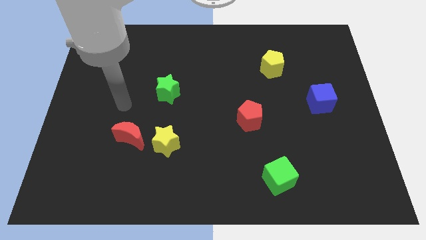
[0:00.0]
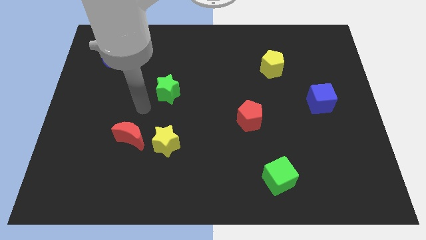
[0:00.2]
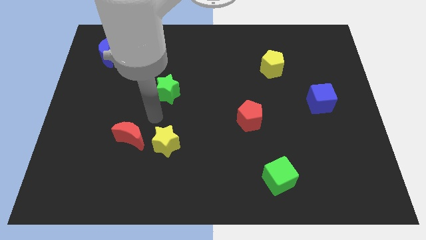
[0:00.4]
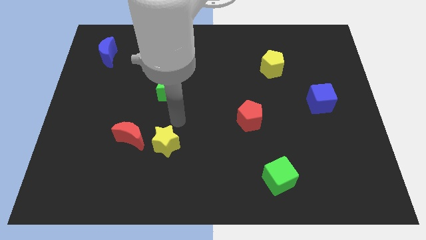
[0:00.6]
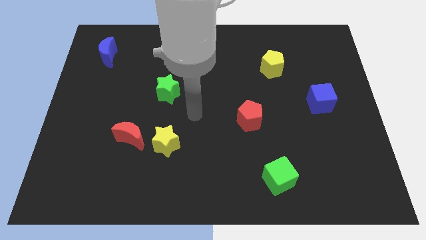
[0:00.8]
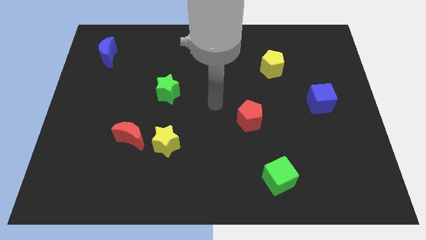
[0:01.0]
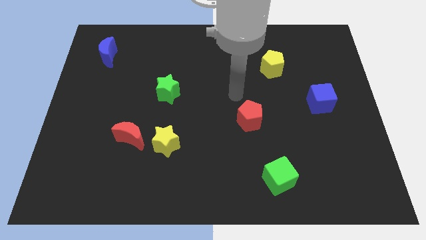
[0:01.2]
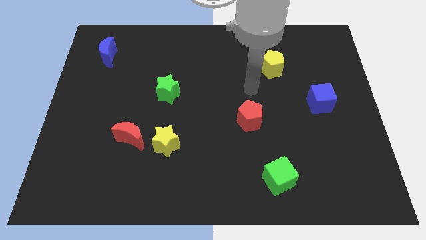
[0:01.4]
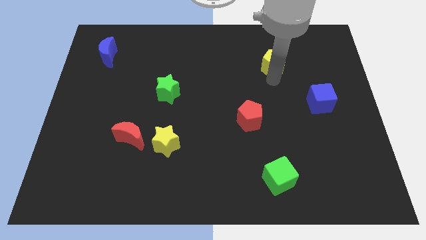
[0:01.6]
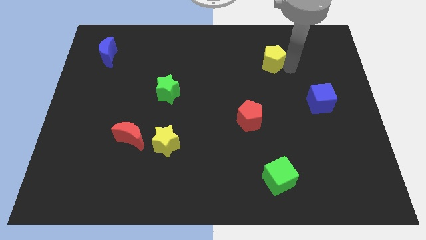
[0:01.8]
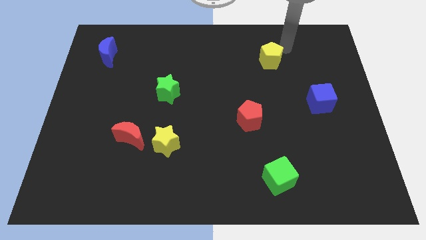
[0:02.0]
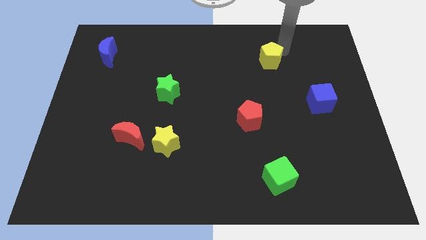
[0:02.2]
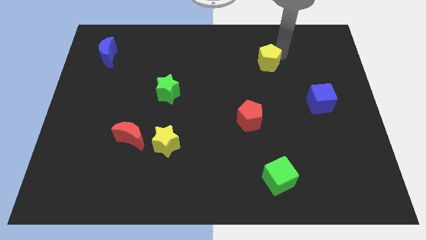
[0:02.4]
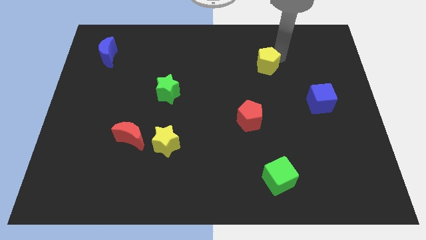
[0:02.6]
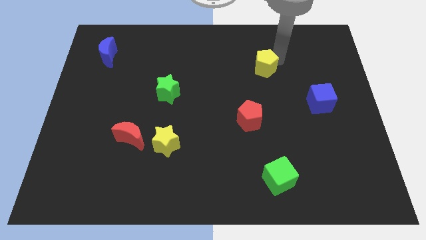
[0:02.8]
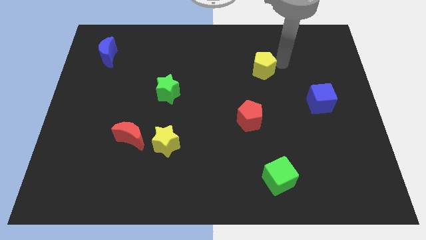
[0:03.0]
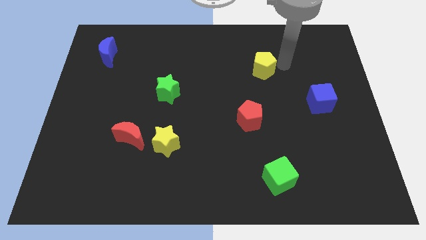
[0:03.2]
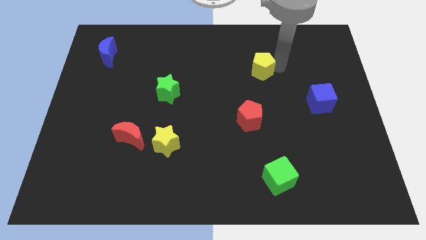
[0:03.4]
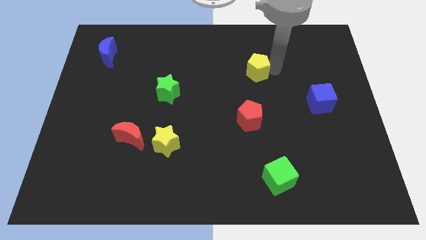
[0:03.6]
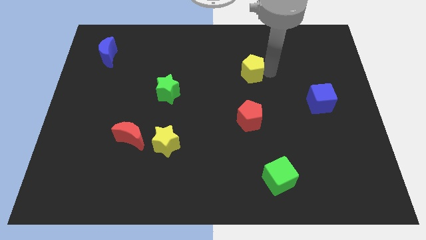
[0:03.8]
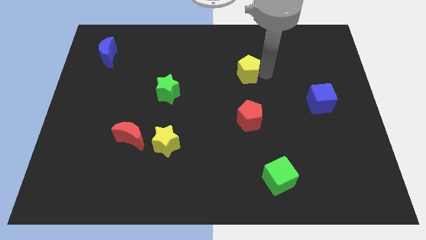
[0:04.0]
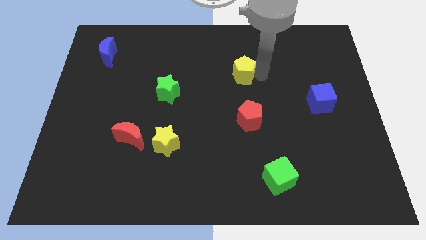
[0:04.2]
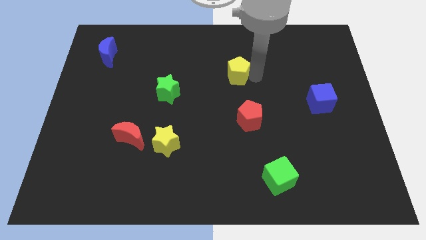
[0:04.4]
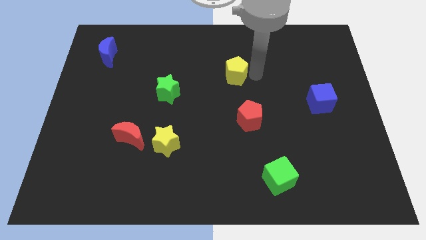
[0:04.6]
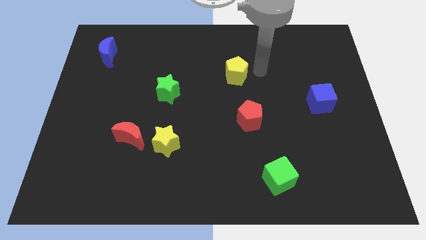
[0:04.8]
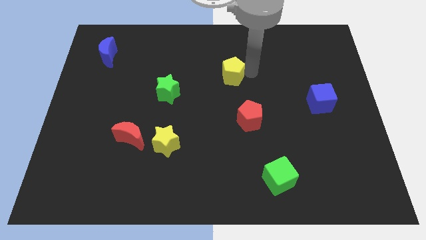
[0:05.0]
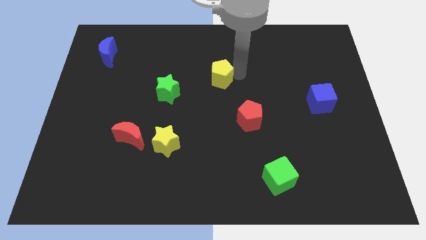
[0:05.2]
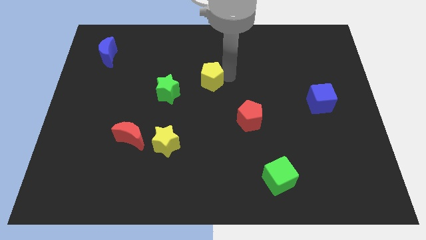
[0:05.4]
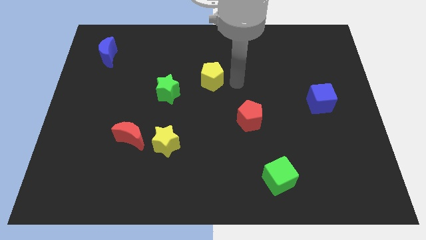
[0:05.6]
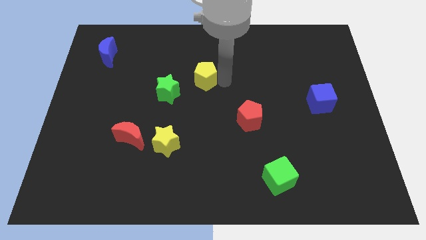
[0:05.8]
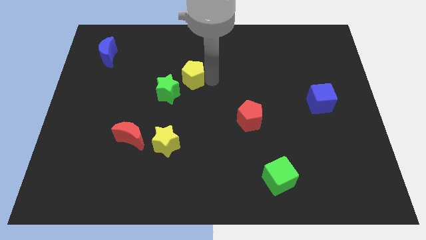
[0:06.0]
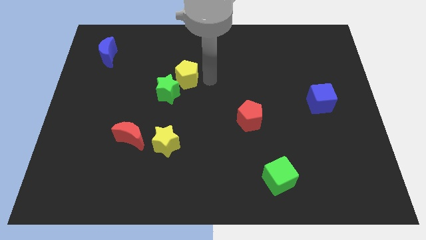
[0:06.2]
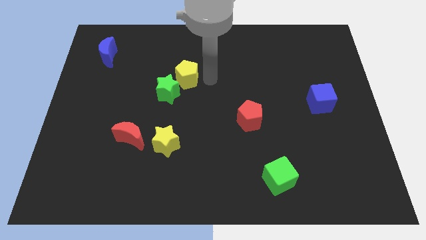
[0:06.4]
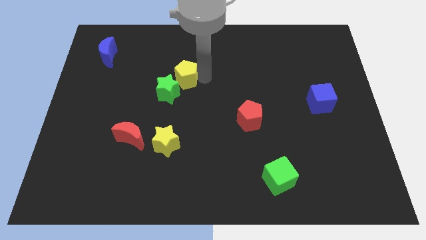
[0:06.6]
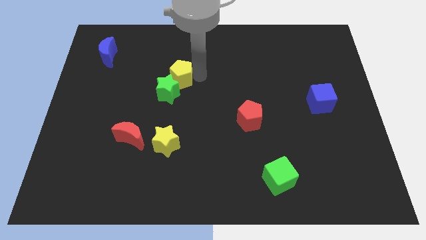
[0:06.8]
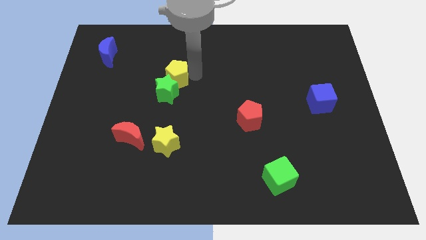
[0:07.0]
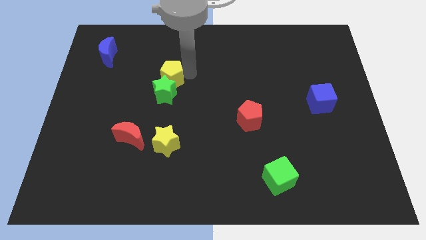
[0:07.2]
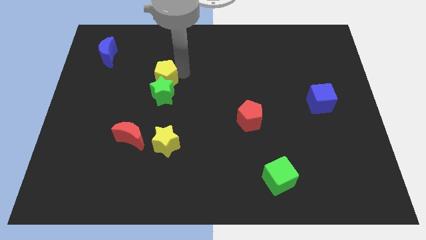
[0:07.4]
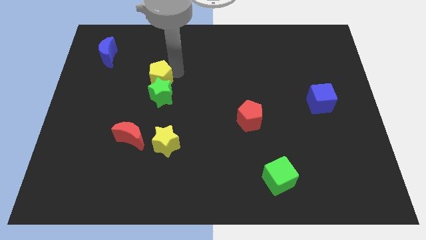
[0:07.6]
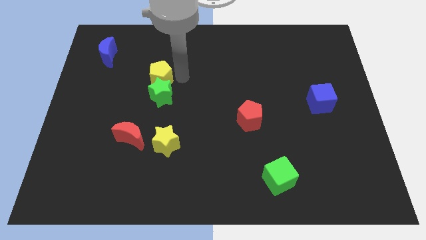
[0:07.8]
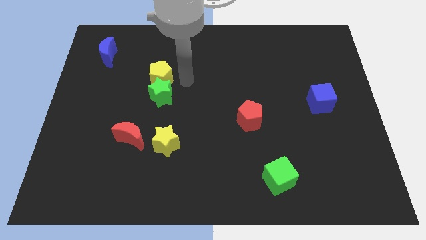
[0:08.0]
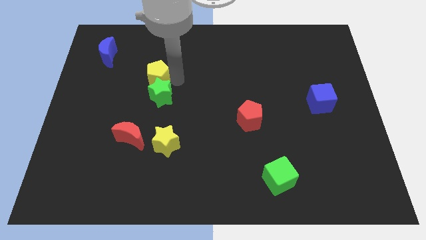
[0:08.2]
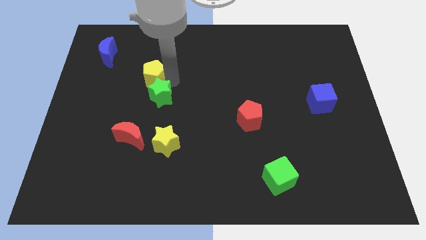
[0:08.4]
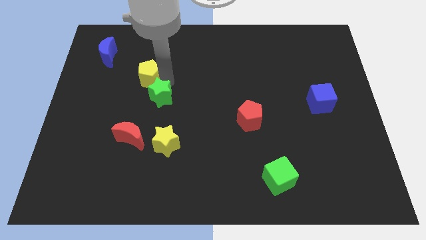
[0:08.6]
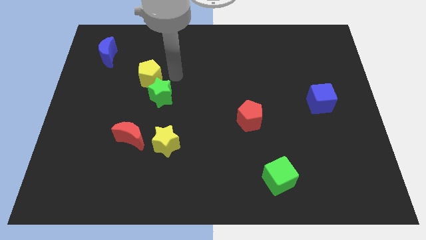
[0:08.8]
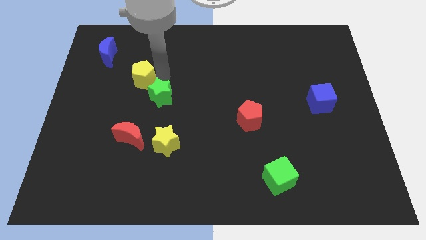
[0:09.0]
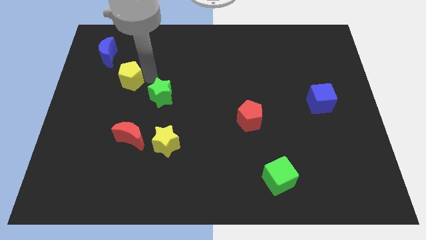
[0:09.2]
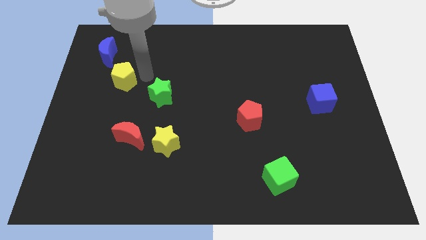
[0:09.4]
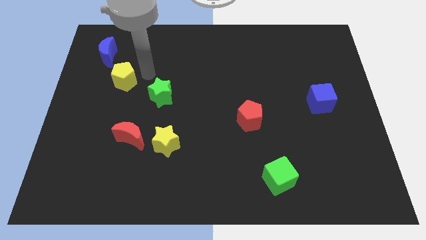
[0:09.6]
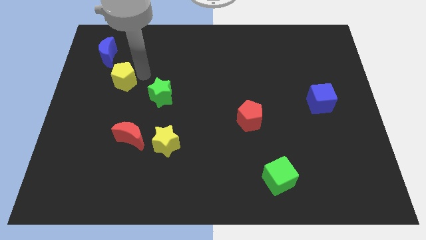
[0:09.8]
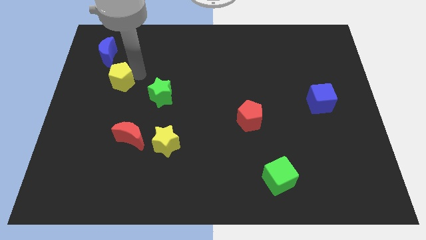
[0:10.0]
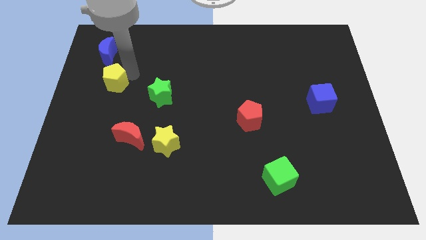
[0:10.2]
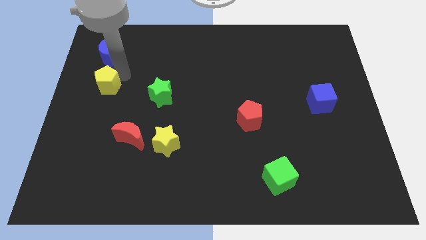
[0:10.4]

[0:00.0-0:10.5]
move the yellow pentagon to the left side of the board

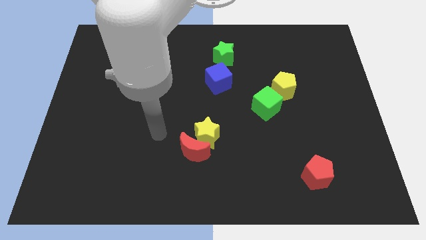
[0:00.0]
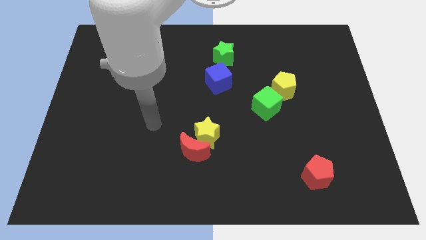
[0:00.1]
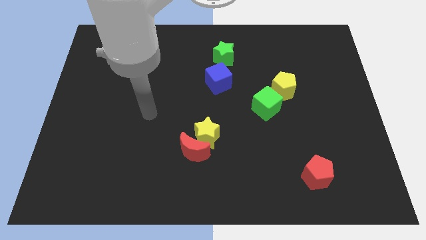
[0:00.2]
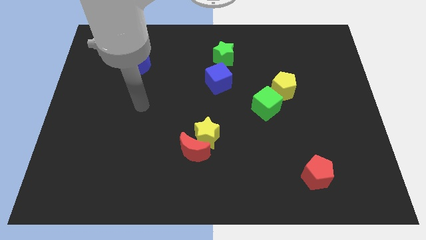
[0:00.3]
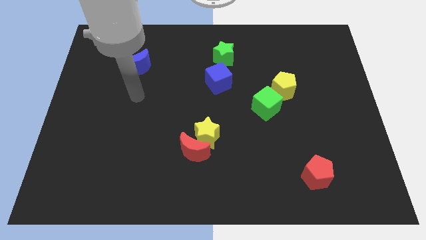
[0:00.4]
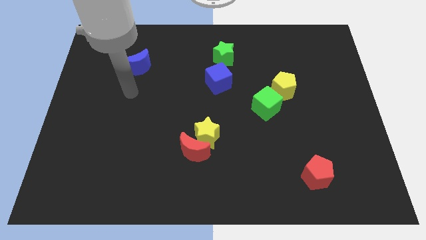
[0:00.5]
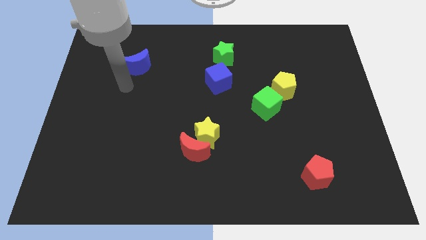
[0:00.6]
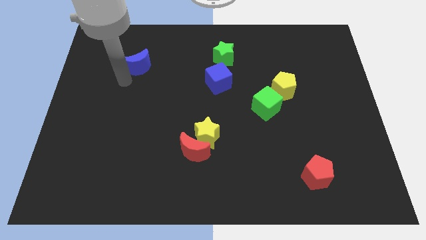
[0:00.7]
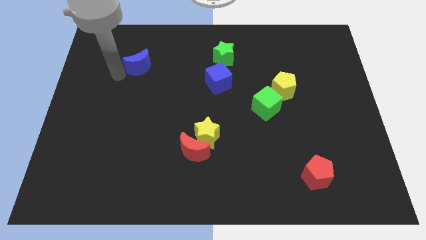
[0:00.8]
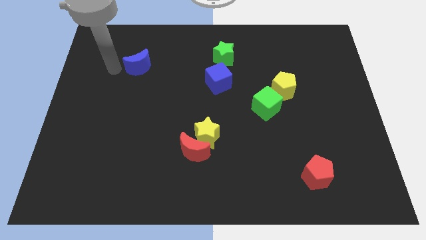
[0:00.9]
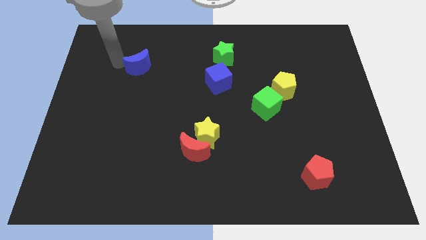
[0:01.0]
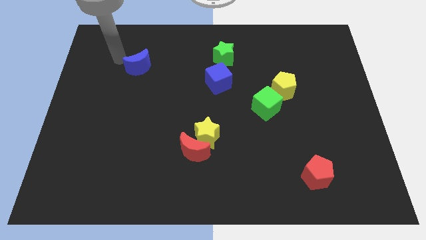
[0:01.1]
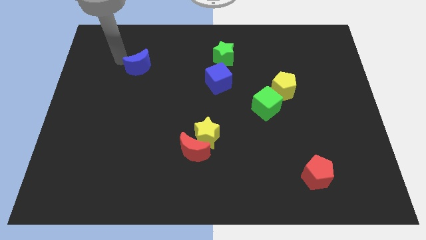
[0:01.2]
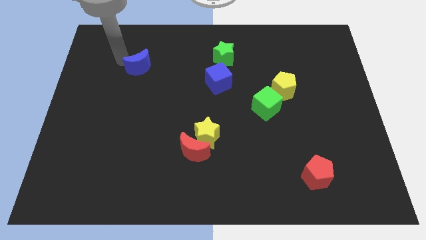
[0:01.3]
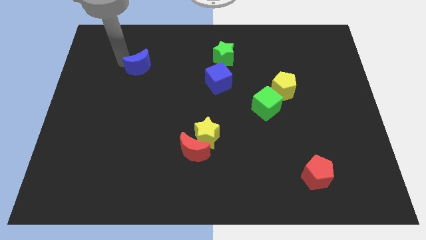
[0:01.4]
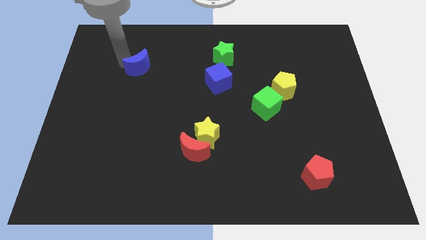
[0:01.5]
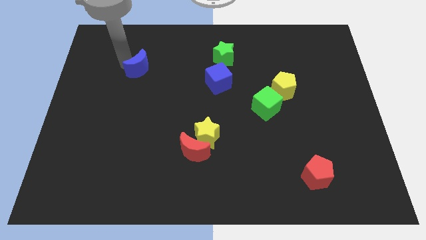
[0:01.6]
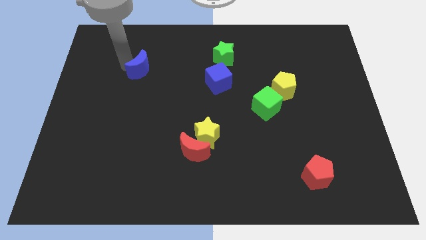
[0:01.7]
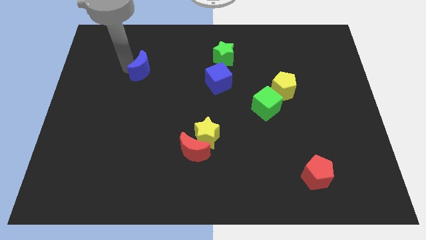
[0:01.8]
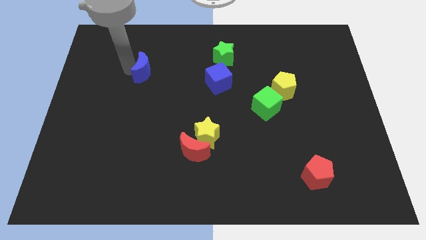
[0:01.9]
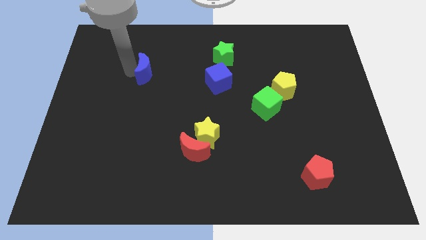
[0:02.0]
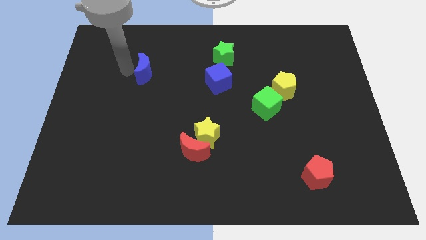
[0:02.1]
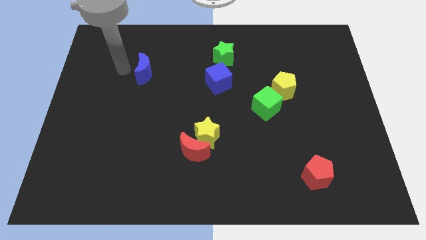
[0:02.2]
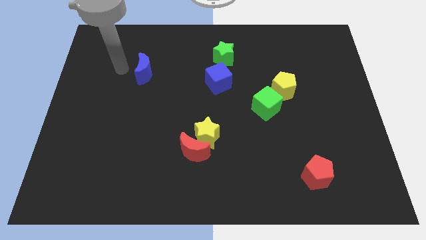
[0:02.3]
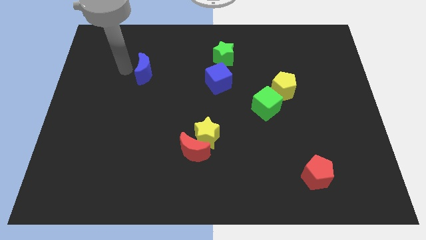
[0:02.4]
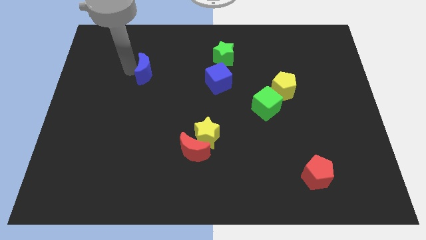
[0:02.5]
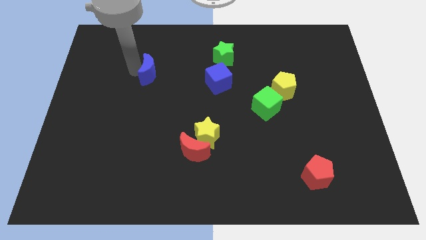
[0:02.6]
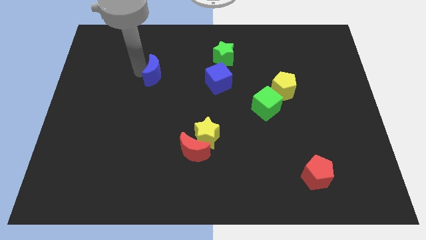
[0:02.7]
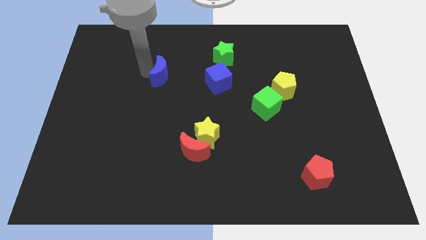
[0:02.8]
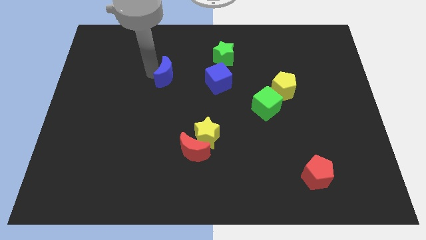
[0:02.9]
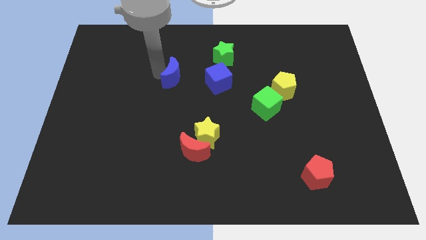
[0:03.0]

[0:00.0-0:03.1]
slide the blue moon to the middle of the board
